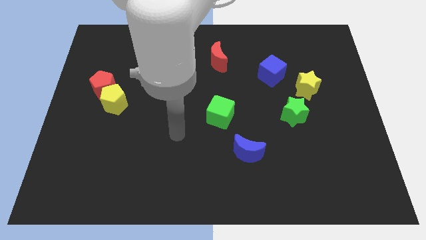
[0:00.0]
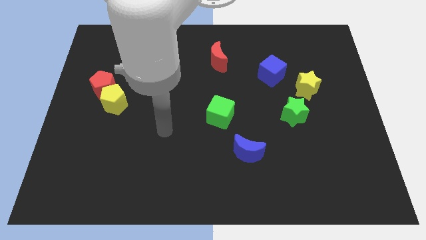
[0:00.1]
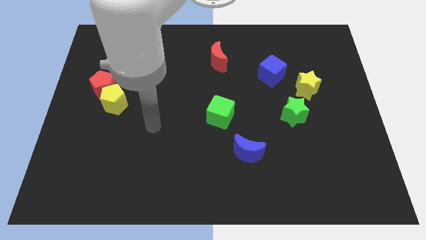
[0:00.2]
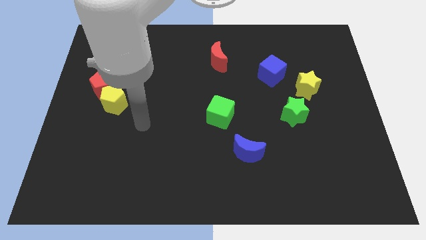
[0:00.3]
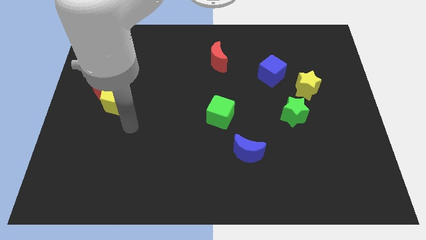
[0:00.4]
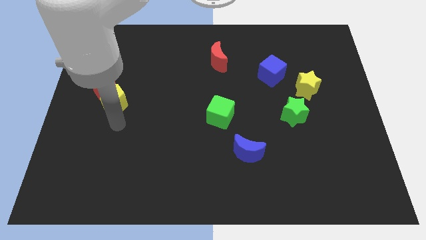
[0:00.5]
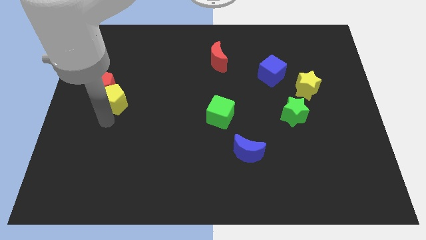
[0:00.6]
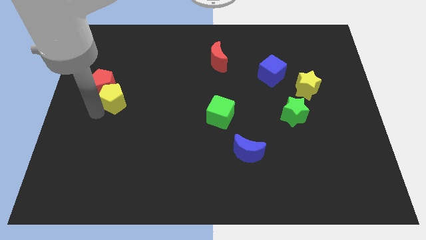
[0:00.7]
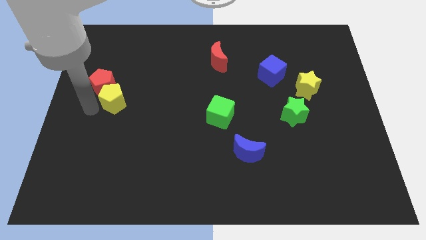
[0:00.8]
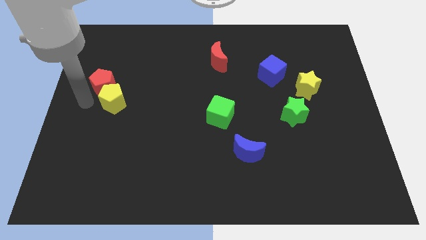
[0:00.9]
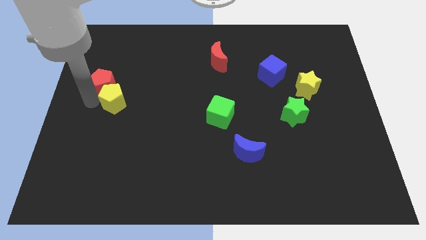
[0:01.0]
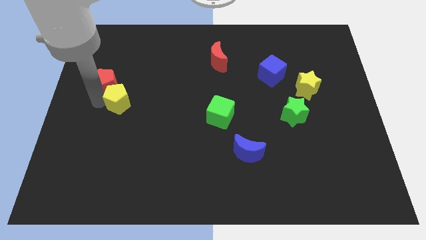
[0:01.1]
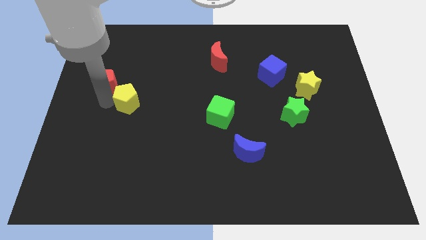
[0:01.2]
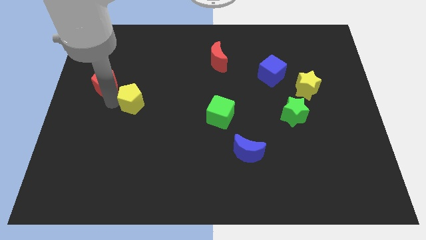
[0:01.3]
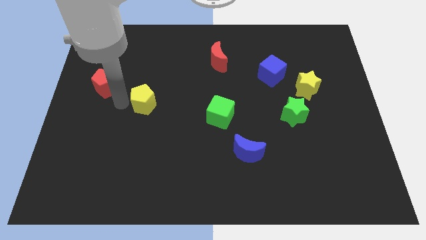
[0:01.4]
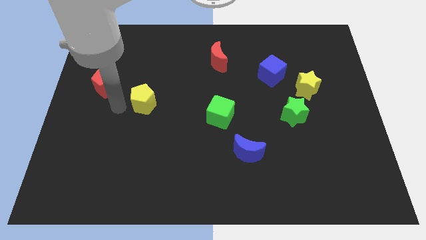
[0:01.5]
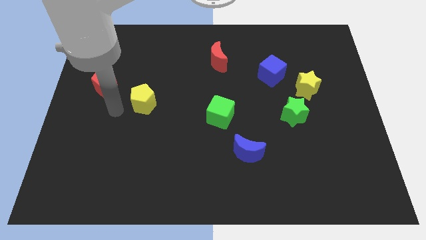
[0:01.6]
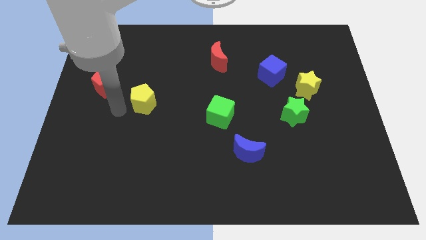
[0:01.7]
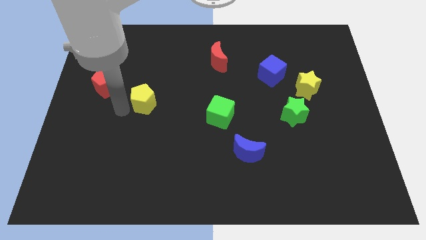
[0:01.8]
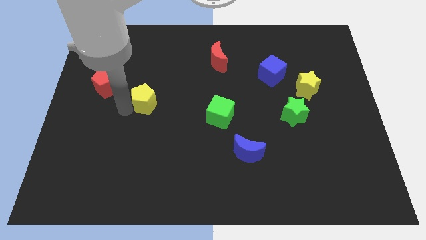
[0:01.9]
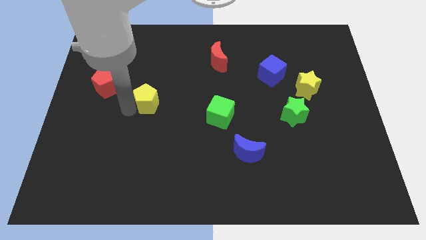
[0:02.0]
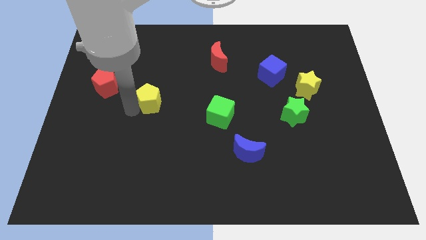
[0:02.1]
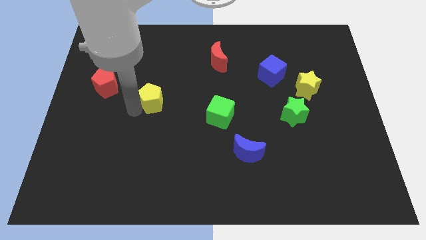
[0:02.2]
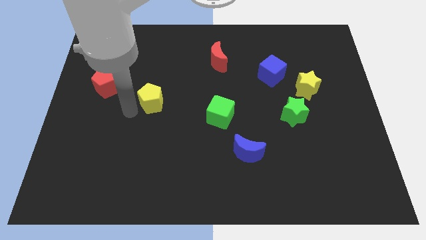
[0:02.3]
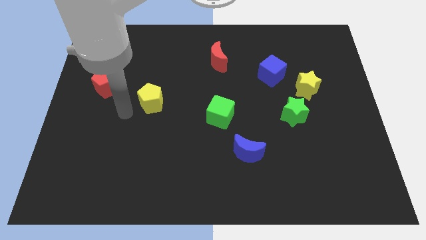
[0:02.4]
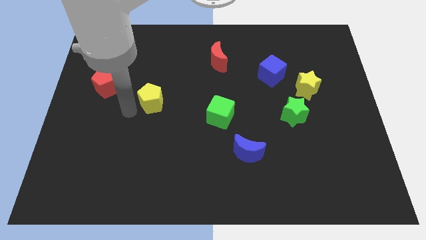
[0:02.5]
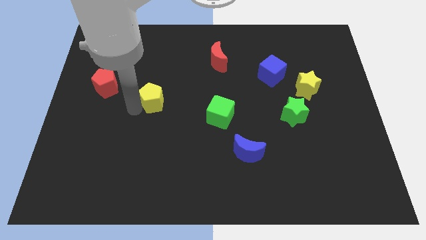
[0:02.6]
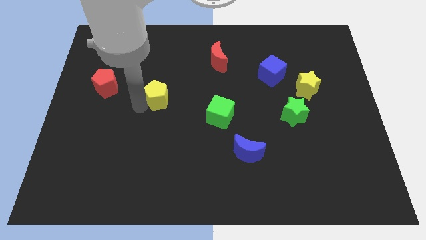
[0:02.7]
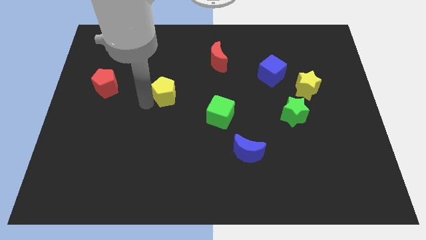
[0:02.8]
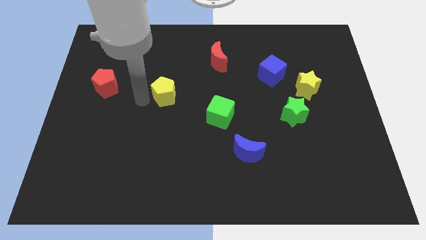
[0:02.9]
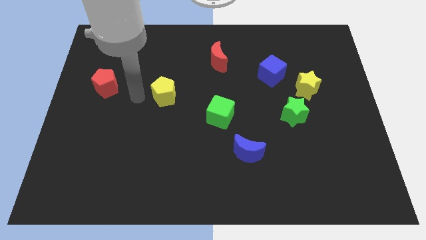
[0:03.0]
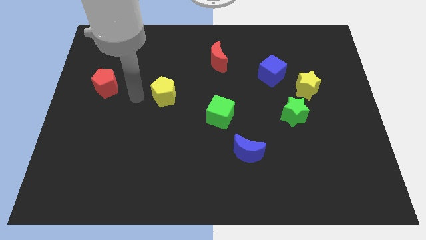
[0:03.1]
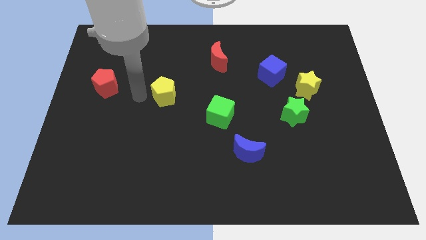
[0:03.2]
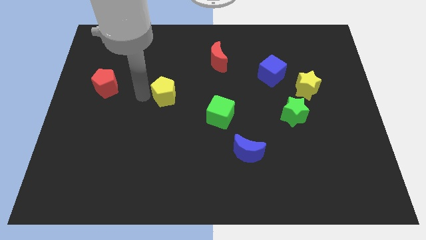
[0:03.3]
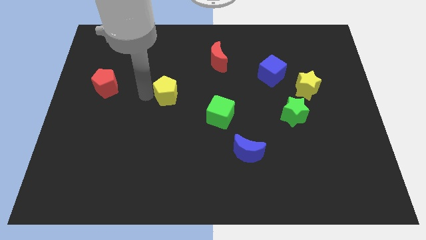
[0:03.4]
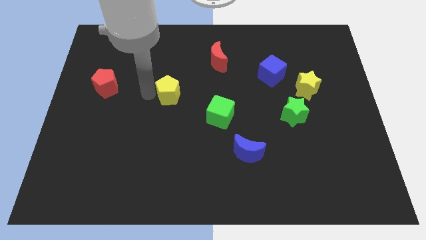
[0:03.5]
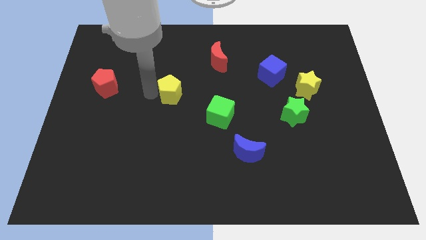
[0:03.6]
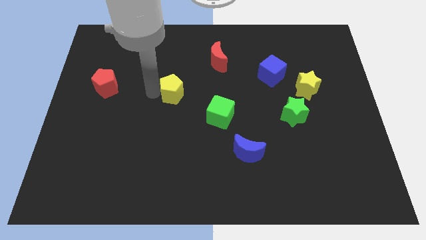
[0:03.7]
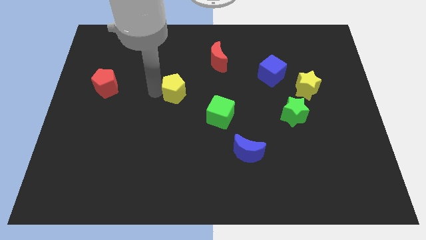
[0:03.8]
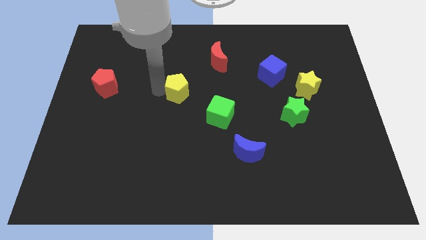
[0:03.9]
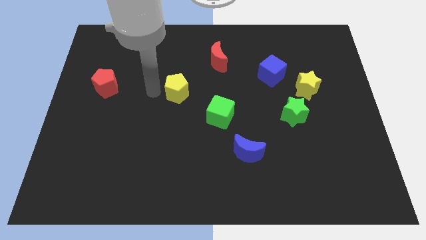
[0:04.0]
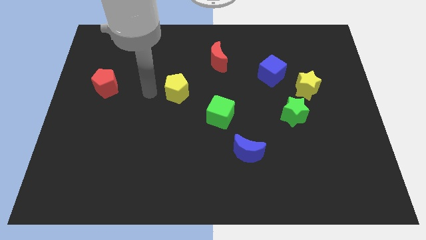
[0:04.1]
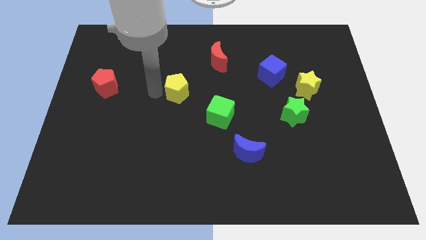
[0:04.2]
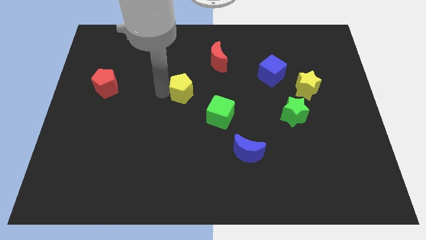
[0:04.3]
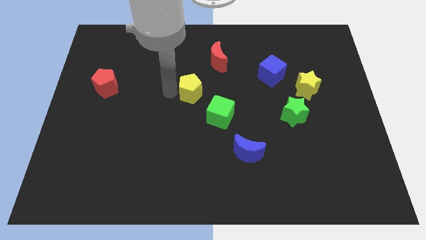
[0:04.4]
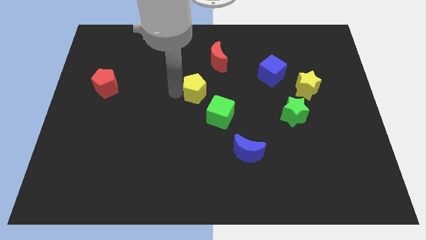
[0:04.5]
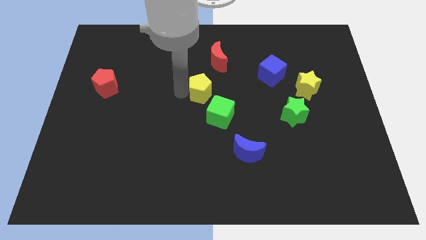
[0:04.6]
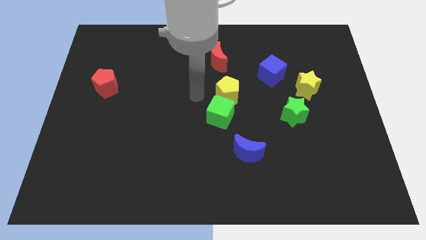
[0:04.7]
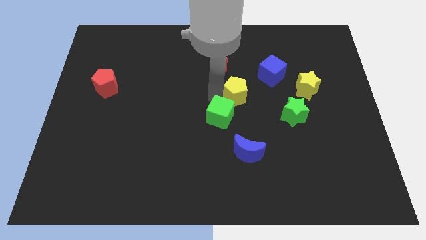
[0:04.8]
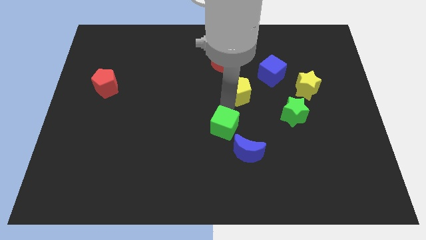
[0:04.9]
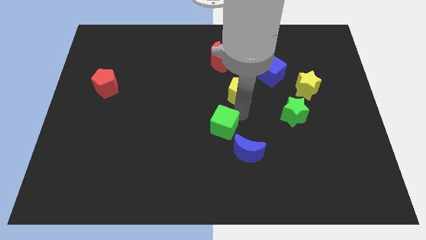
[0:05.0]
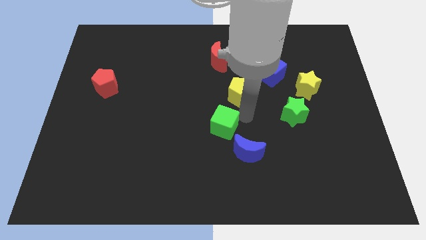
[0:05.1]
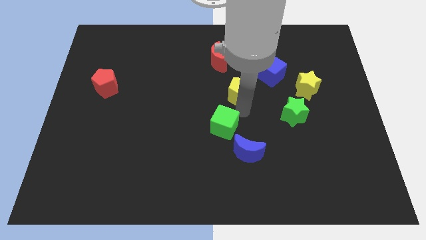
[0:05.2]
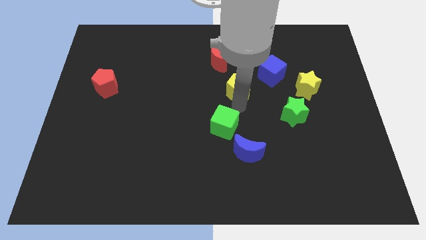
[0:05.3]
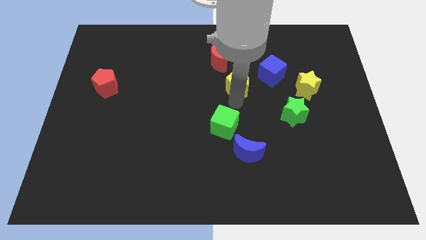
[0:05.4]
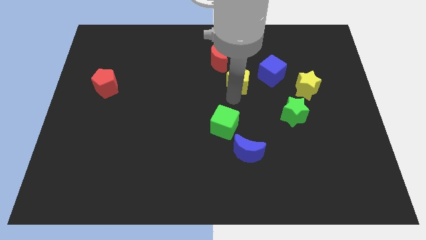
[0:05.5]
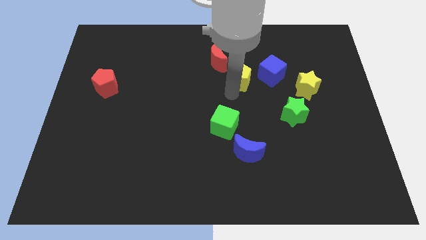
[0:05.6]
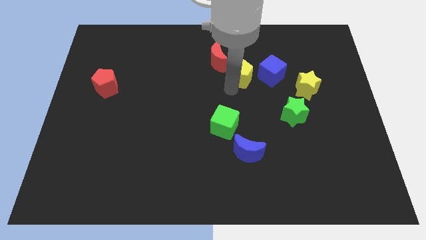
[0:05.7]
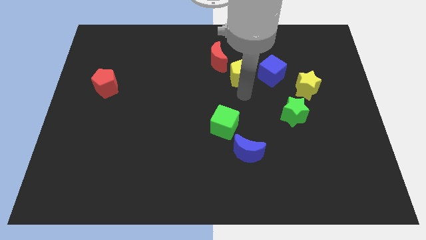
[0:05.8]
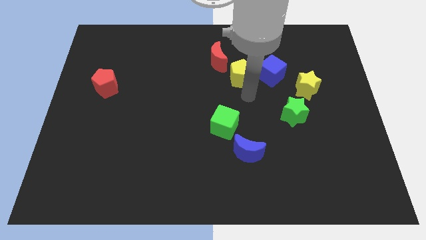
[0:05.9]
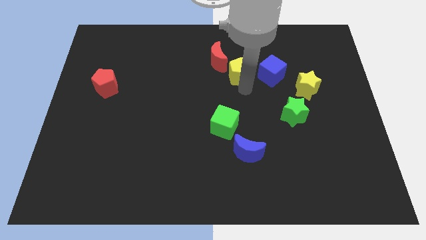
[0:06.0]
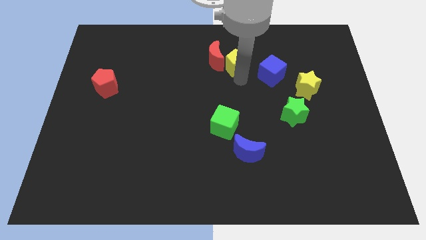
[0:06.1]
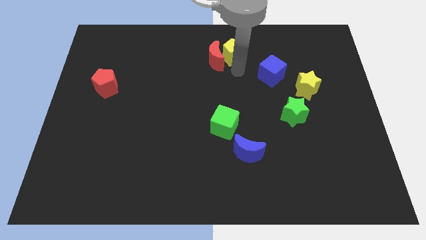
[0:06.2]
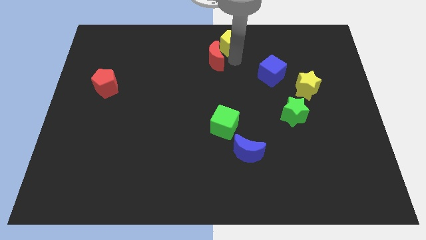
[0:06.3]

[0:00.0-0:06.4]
put the yellow pentagon to the towards your base
